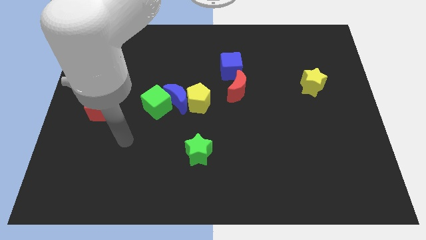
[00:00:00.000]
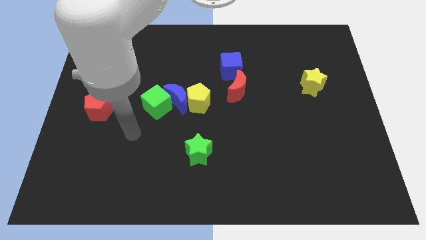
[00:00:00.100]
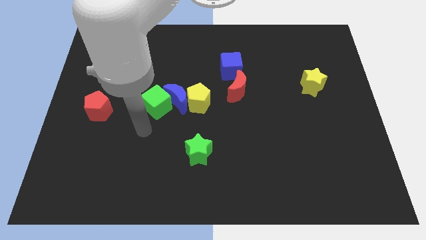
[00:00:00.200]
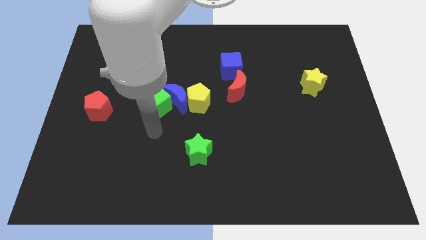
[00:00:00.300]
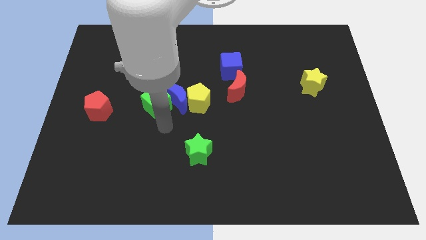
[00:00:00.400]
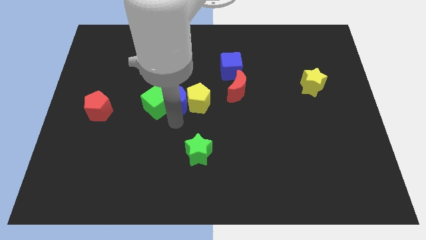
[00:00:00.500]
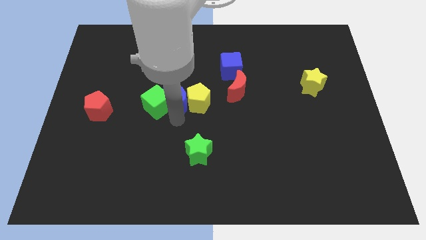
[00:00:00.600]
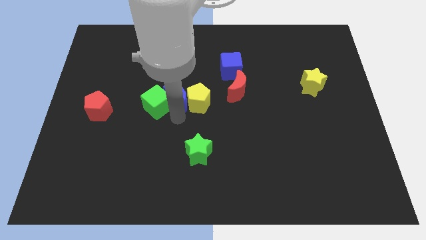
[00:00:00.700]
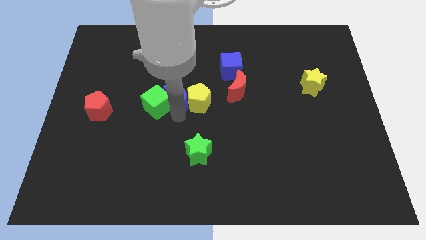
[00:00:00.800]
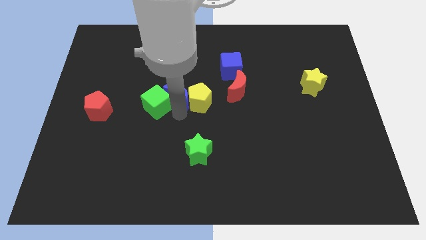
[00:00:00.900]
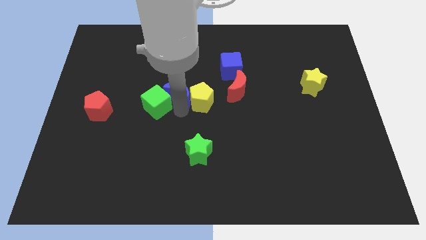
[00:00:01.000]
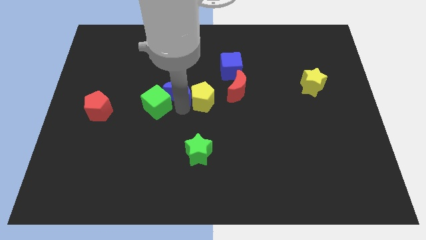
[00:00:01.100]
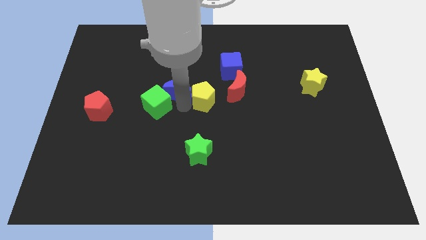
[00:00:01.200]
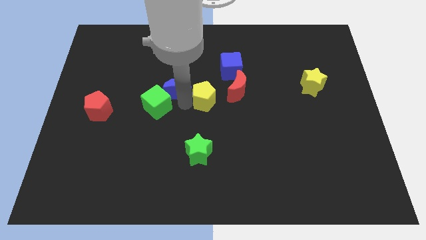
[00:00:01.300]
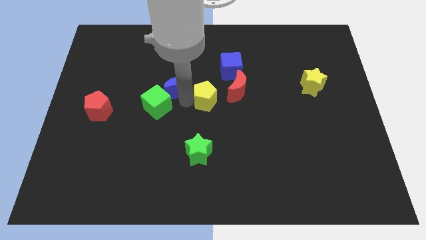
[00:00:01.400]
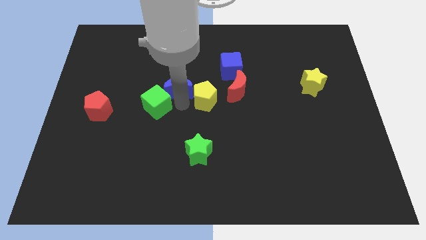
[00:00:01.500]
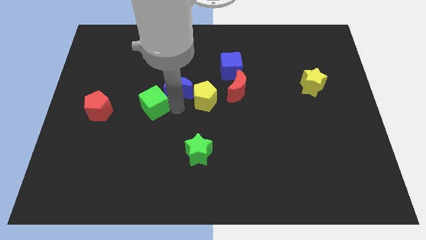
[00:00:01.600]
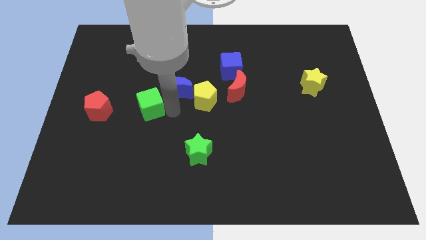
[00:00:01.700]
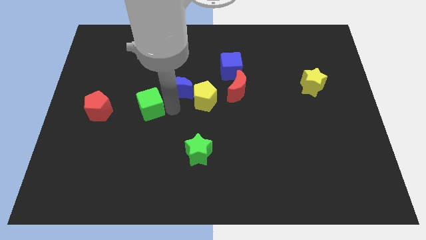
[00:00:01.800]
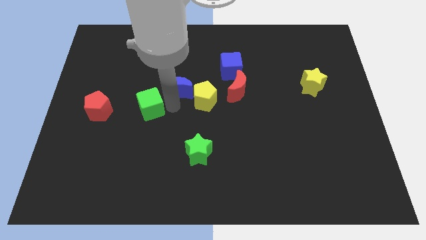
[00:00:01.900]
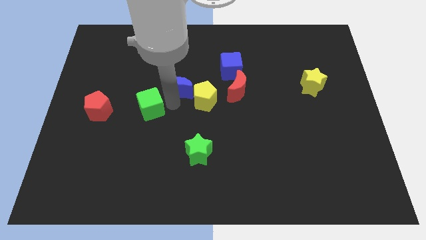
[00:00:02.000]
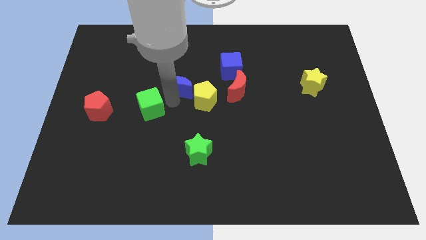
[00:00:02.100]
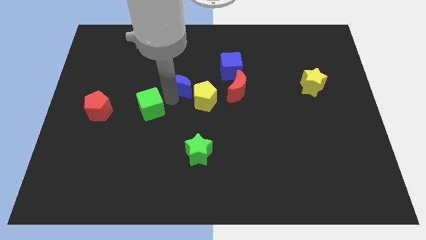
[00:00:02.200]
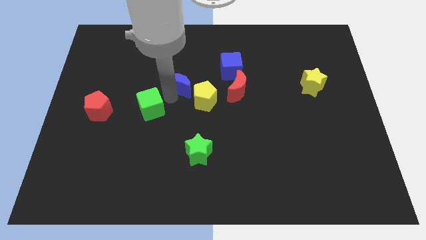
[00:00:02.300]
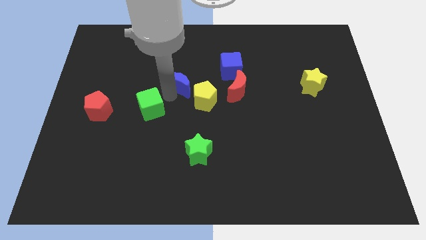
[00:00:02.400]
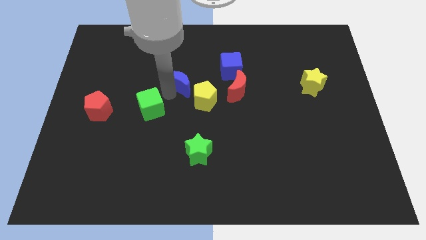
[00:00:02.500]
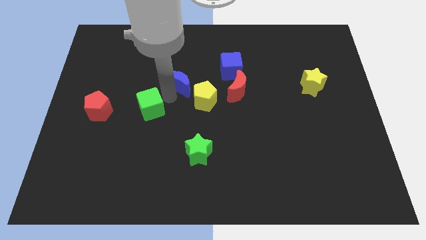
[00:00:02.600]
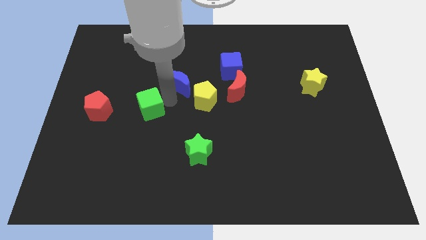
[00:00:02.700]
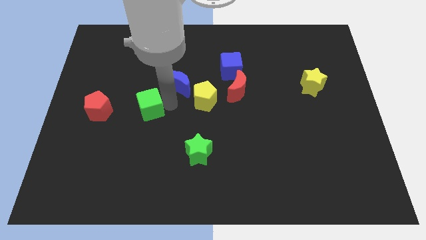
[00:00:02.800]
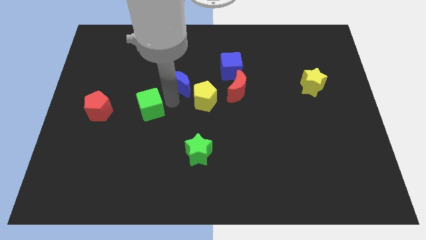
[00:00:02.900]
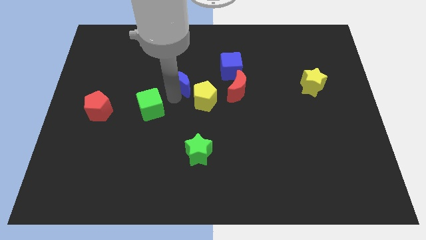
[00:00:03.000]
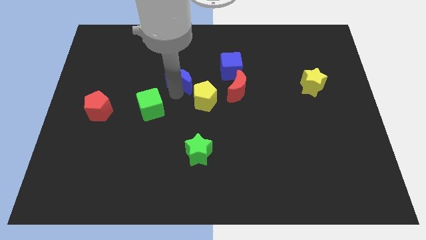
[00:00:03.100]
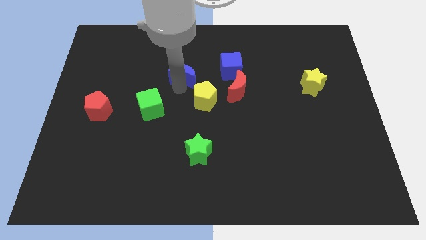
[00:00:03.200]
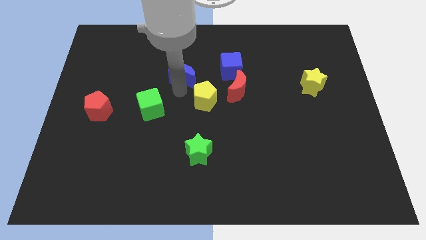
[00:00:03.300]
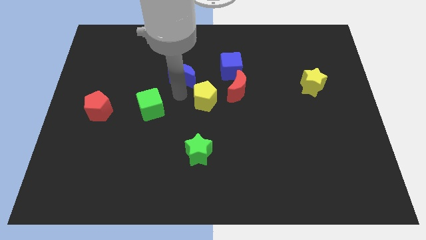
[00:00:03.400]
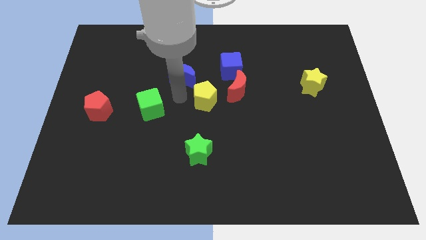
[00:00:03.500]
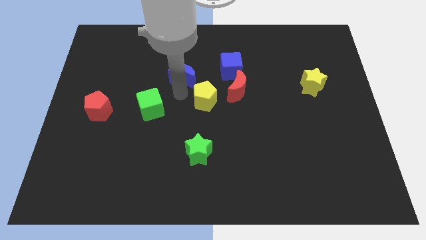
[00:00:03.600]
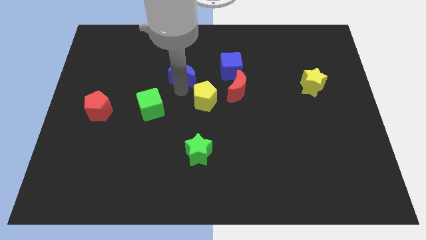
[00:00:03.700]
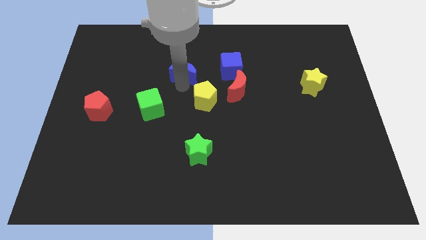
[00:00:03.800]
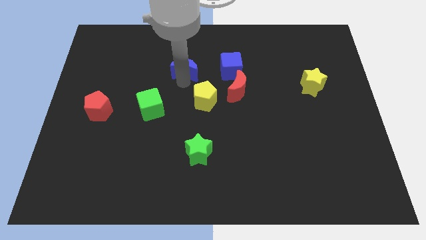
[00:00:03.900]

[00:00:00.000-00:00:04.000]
pull the blue moon apart from the yellow pentagon and green cube

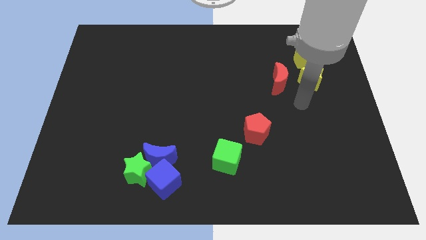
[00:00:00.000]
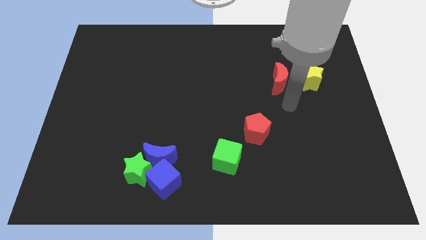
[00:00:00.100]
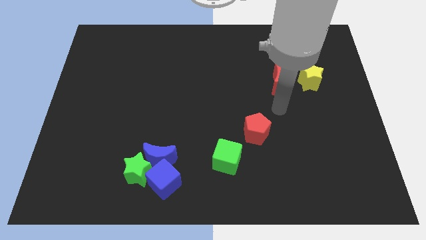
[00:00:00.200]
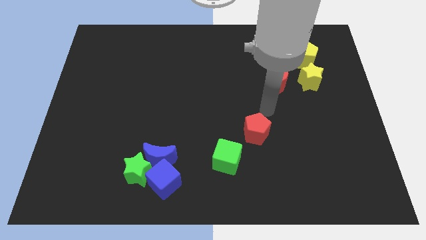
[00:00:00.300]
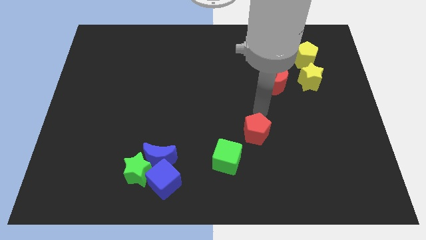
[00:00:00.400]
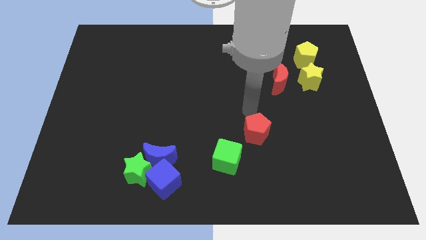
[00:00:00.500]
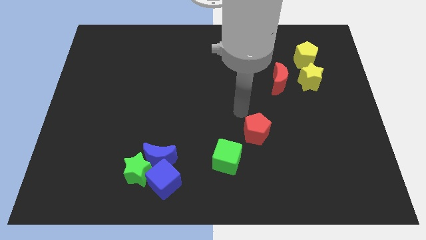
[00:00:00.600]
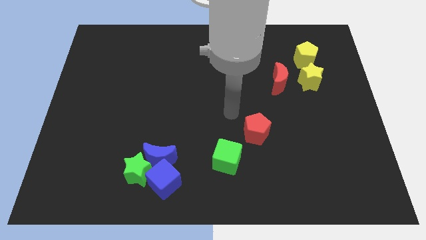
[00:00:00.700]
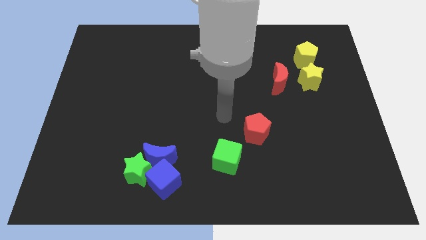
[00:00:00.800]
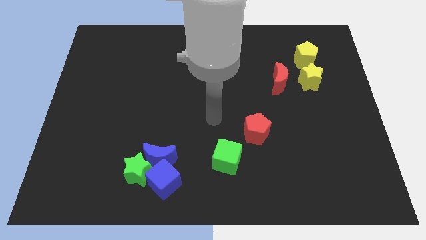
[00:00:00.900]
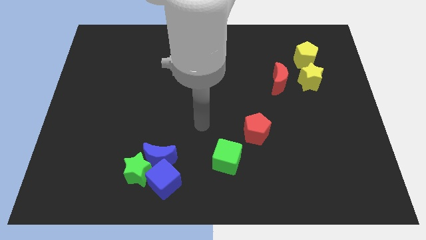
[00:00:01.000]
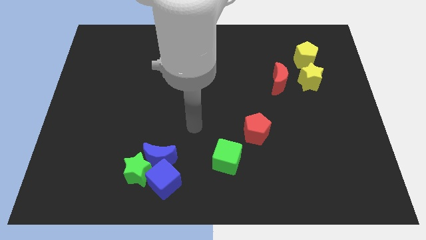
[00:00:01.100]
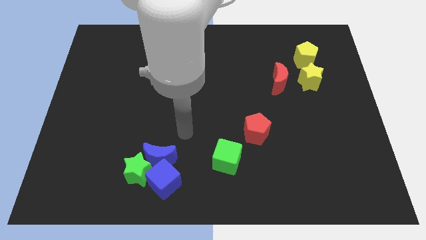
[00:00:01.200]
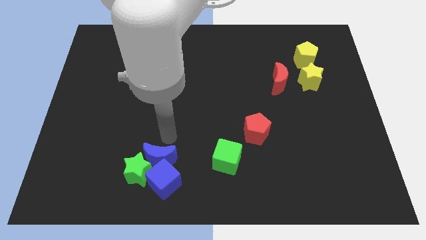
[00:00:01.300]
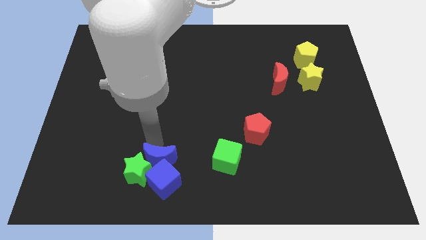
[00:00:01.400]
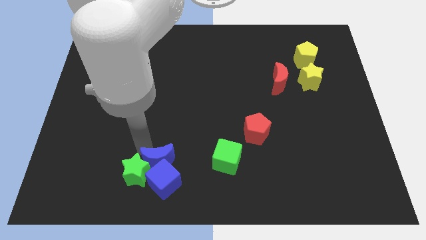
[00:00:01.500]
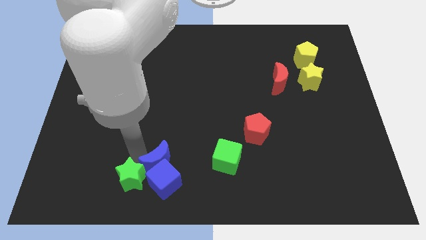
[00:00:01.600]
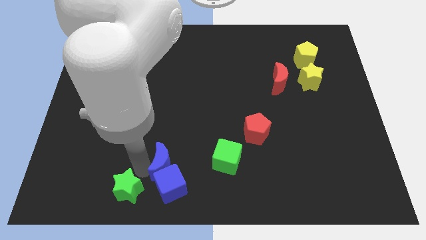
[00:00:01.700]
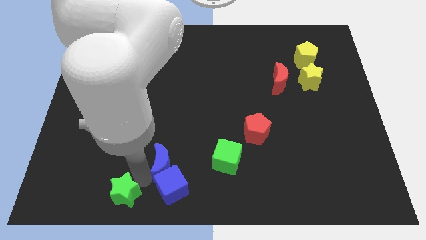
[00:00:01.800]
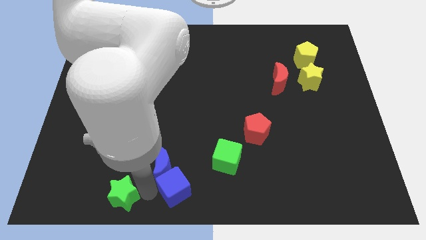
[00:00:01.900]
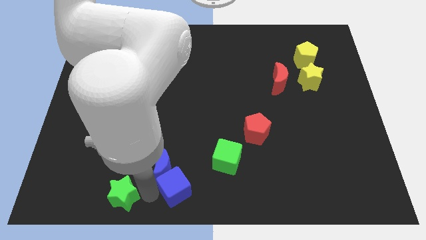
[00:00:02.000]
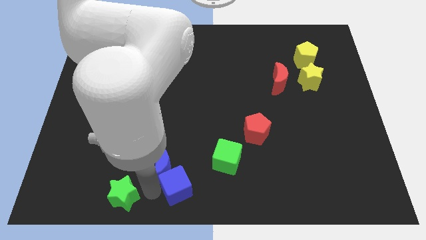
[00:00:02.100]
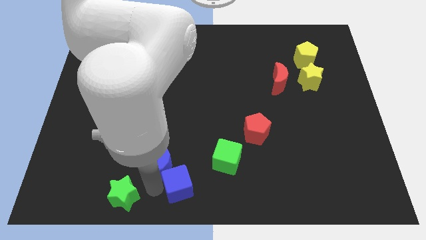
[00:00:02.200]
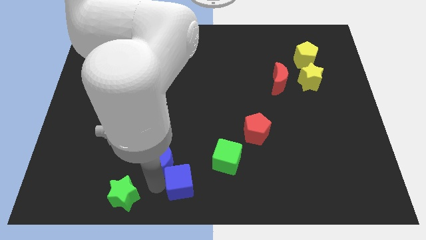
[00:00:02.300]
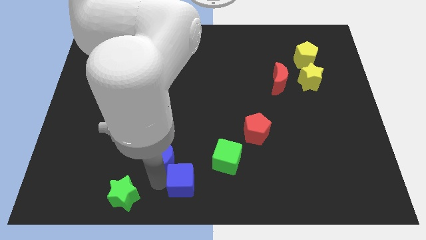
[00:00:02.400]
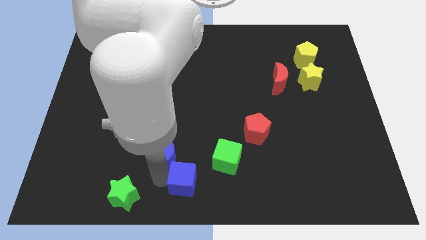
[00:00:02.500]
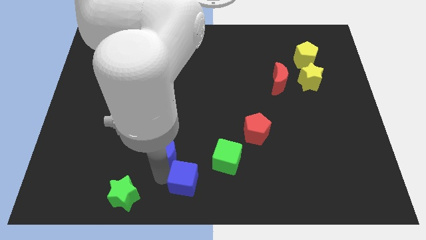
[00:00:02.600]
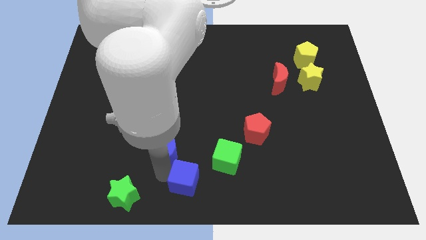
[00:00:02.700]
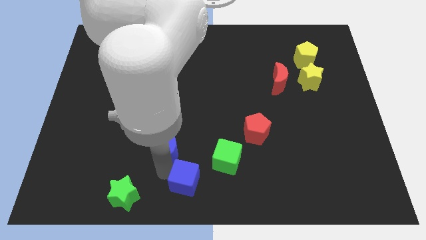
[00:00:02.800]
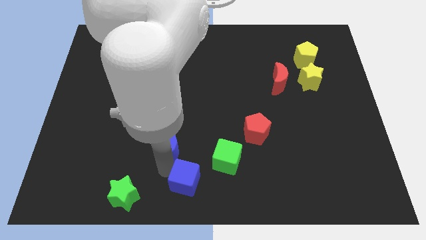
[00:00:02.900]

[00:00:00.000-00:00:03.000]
separate the blue moon from the green star and blue cube

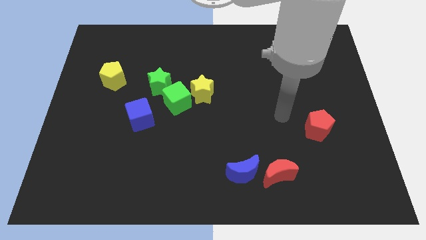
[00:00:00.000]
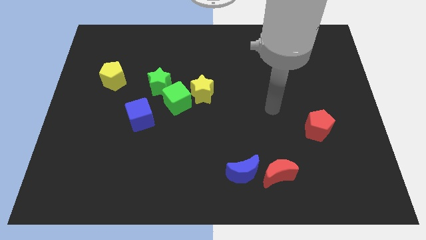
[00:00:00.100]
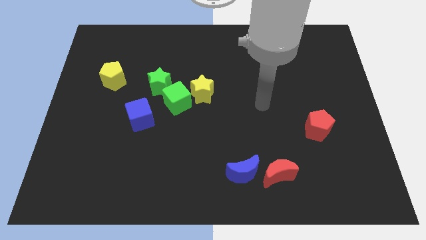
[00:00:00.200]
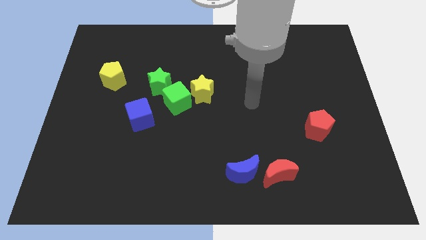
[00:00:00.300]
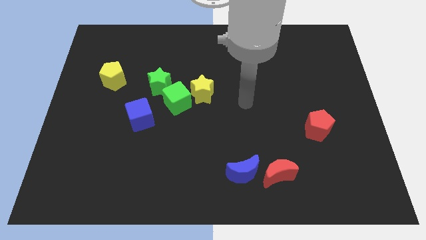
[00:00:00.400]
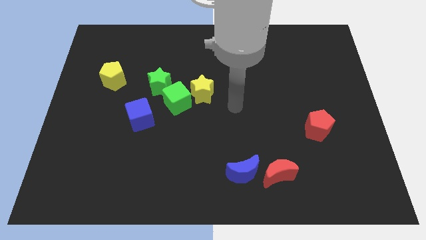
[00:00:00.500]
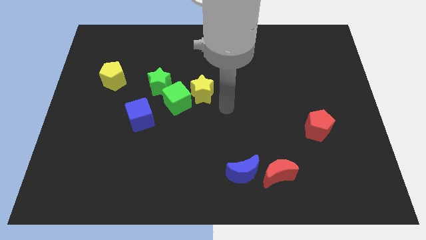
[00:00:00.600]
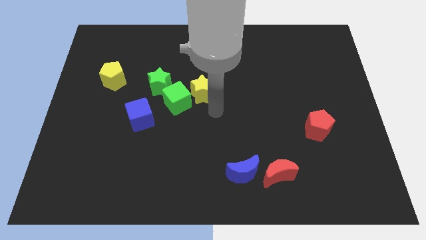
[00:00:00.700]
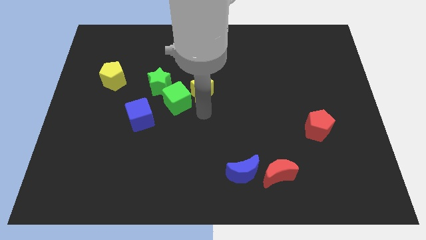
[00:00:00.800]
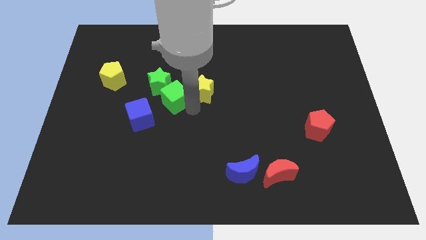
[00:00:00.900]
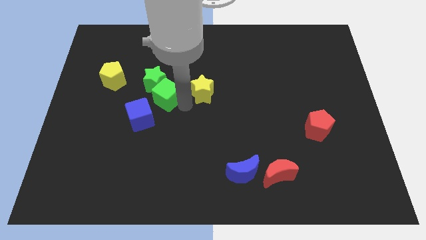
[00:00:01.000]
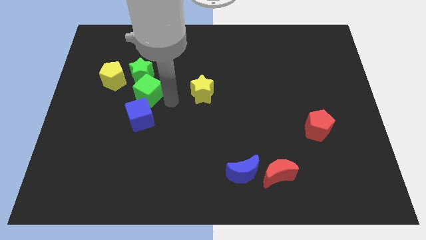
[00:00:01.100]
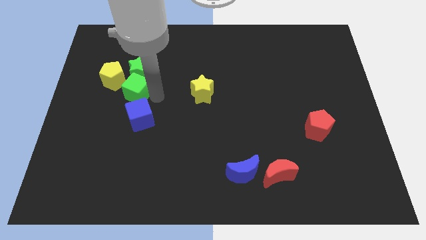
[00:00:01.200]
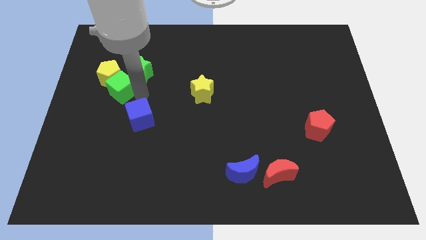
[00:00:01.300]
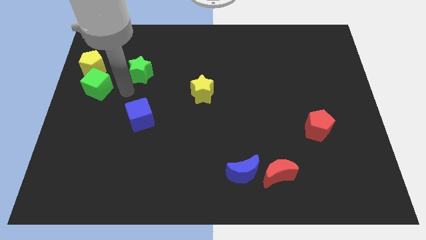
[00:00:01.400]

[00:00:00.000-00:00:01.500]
move the green star away from the green cube

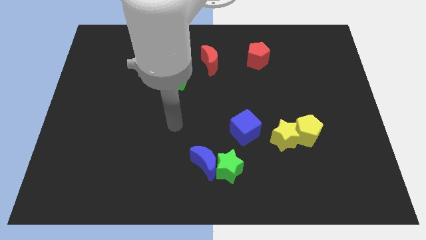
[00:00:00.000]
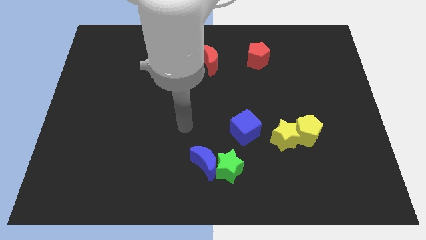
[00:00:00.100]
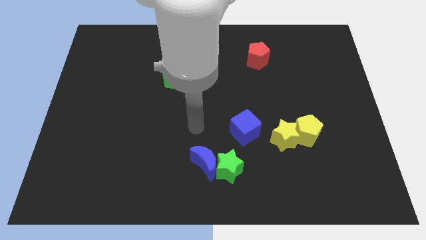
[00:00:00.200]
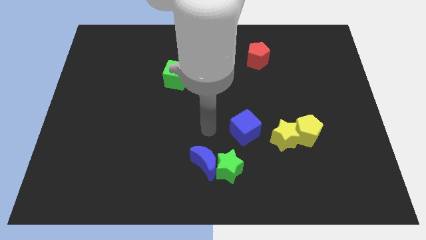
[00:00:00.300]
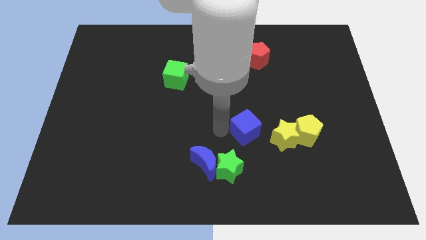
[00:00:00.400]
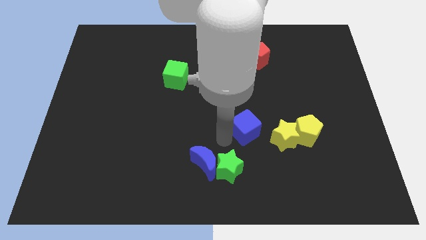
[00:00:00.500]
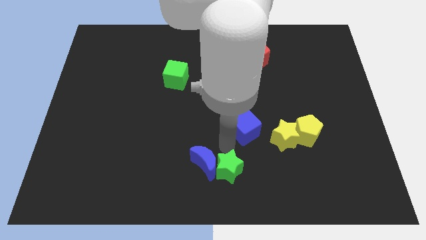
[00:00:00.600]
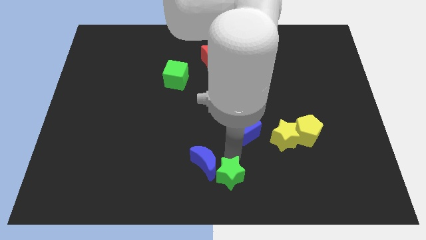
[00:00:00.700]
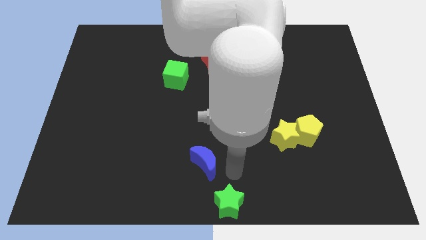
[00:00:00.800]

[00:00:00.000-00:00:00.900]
move the blue moon away from the green star
